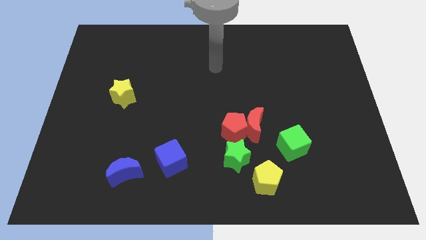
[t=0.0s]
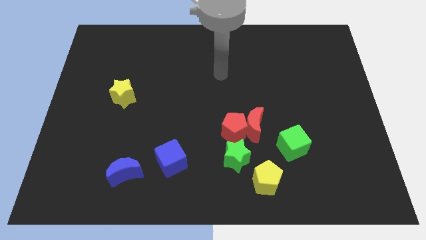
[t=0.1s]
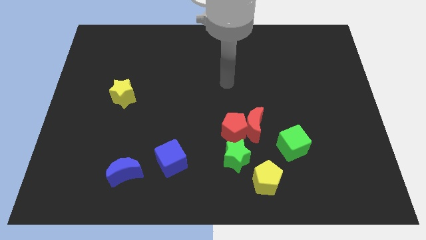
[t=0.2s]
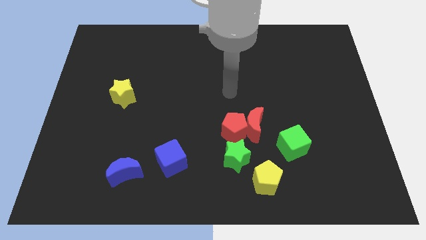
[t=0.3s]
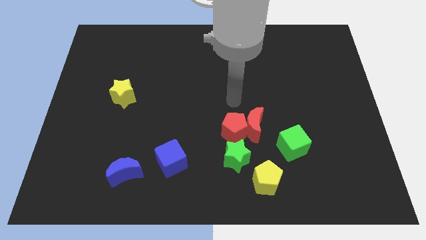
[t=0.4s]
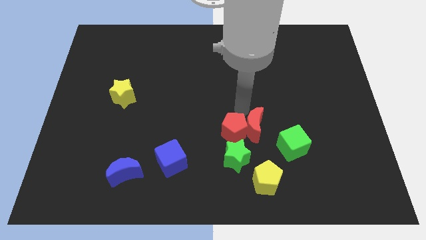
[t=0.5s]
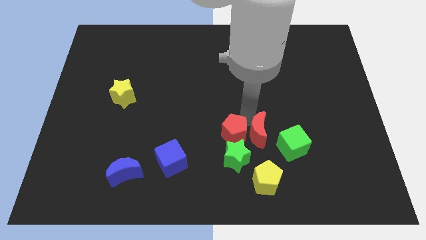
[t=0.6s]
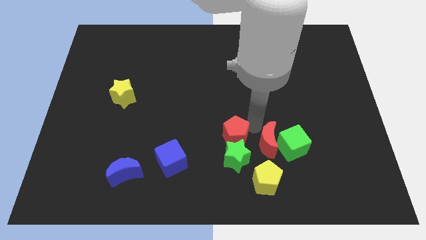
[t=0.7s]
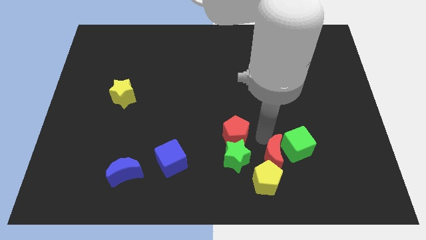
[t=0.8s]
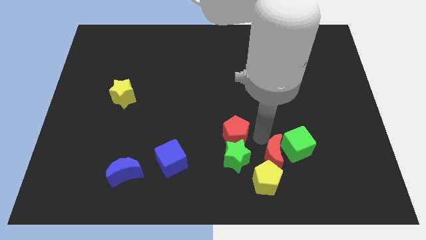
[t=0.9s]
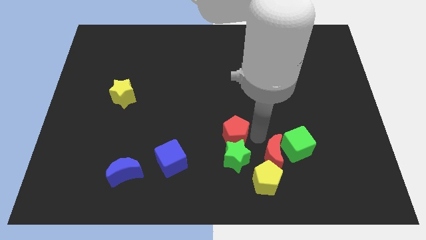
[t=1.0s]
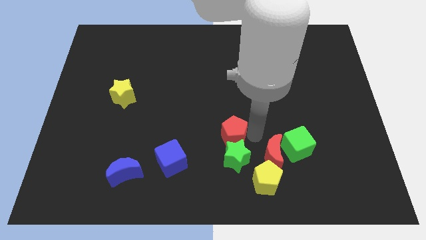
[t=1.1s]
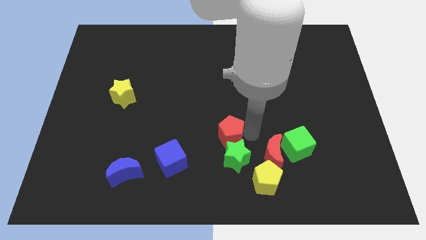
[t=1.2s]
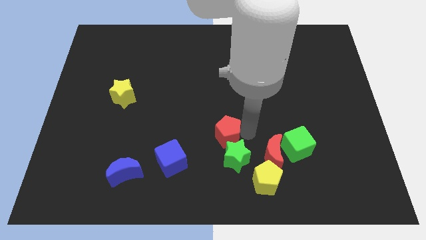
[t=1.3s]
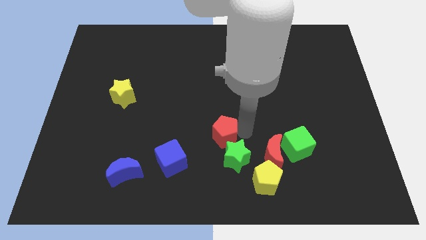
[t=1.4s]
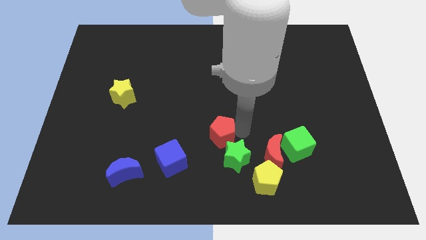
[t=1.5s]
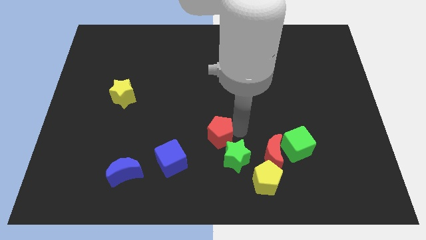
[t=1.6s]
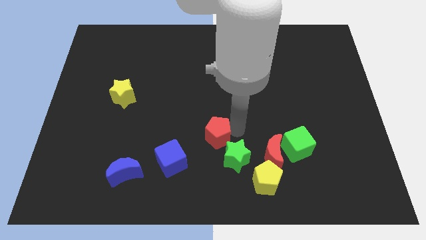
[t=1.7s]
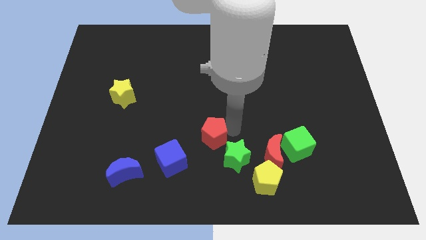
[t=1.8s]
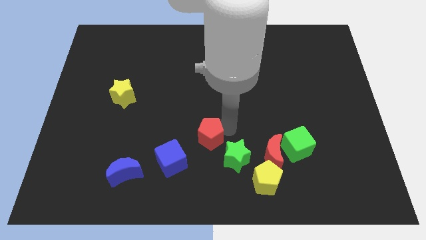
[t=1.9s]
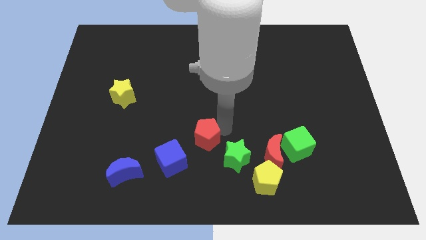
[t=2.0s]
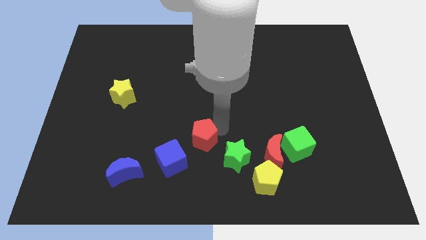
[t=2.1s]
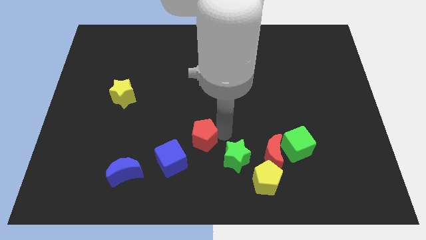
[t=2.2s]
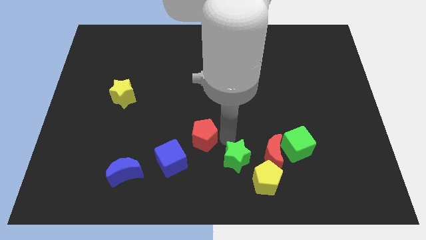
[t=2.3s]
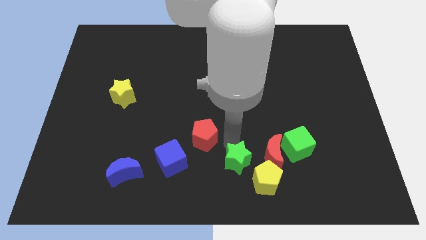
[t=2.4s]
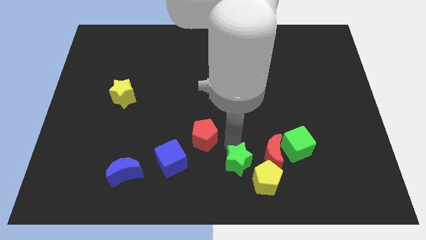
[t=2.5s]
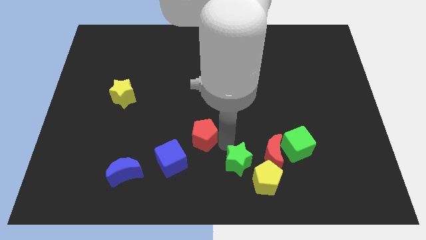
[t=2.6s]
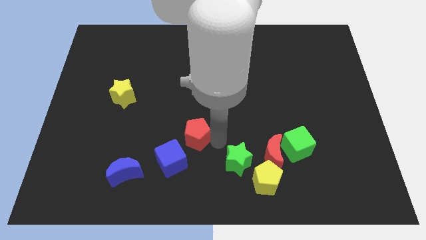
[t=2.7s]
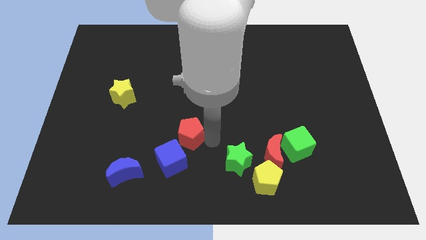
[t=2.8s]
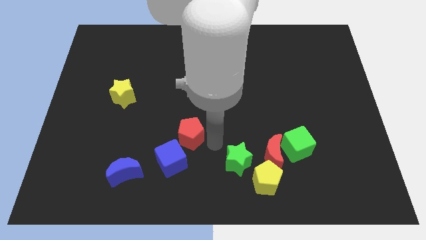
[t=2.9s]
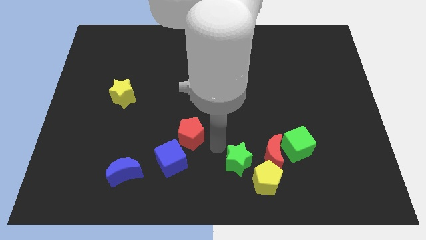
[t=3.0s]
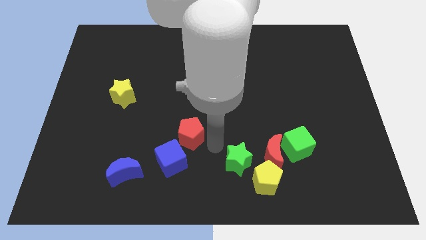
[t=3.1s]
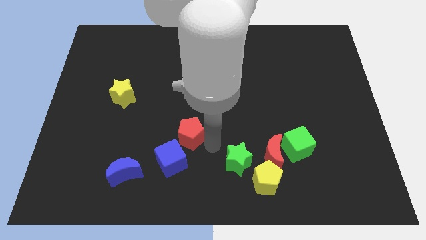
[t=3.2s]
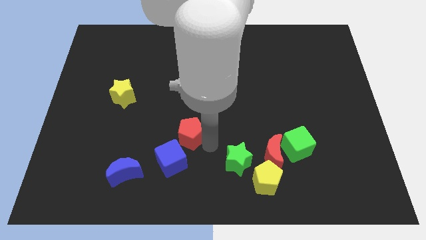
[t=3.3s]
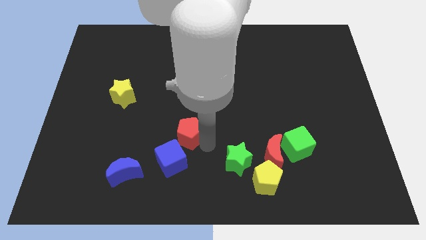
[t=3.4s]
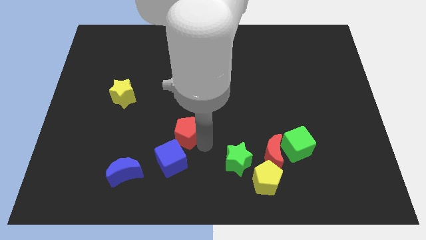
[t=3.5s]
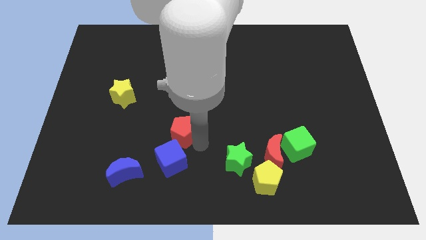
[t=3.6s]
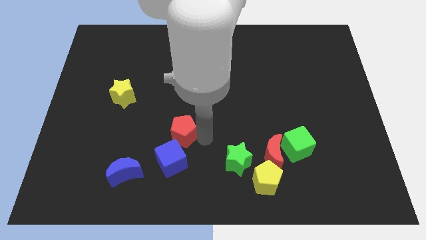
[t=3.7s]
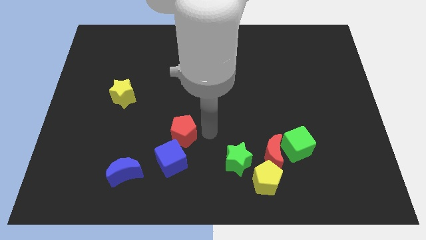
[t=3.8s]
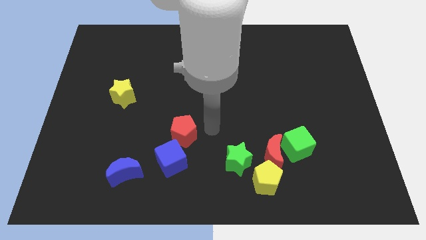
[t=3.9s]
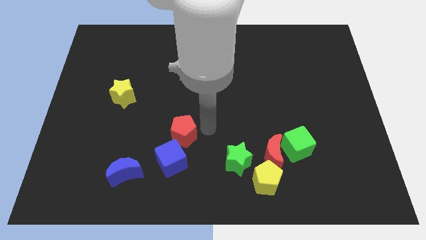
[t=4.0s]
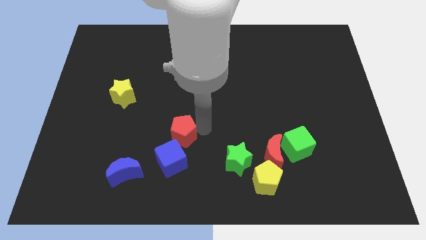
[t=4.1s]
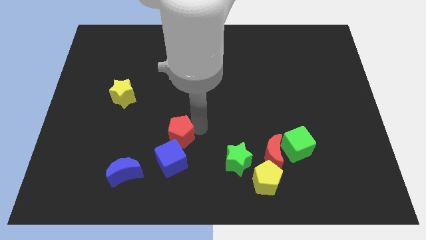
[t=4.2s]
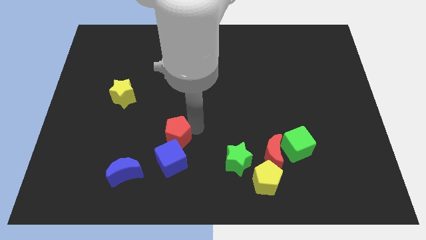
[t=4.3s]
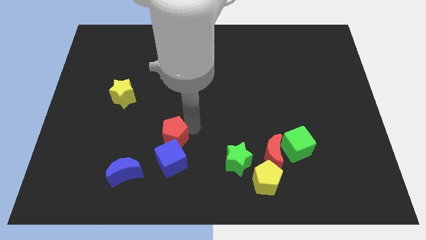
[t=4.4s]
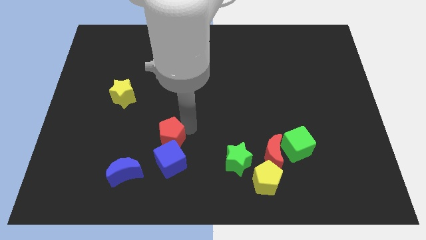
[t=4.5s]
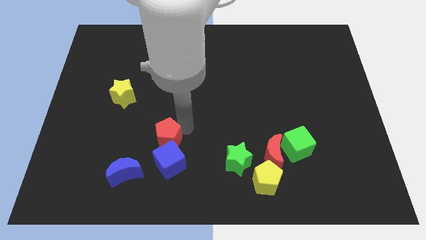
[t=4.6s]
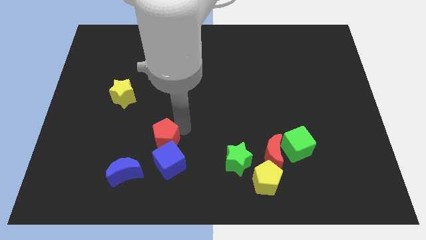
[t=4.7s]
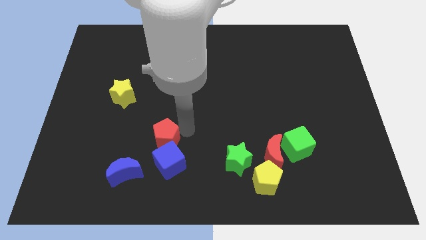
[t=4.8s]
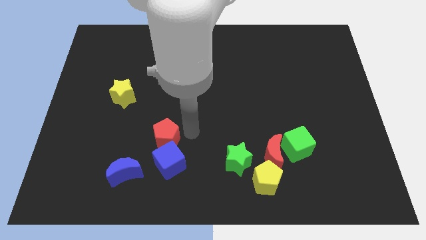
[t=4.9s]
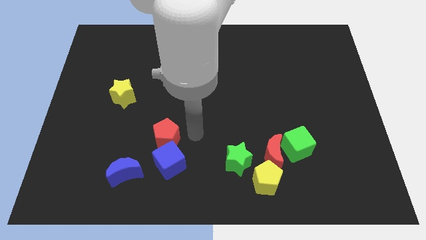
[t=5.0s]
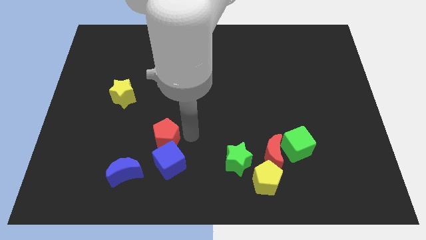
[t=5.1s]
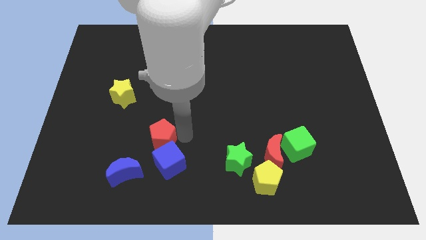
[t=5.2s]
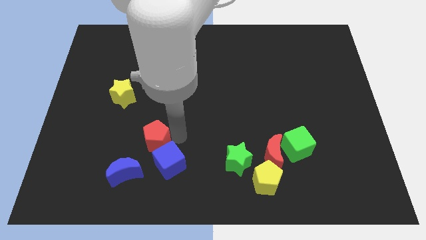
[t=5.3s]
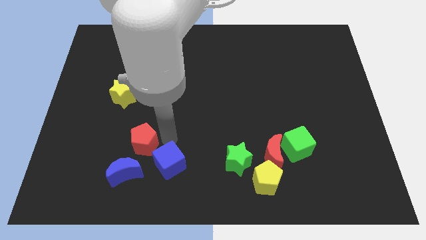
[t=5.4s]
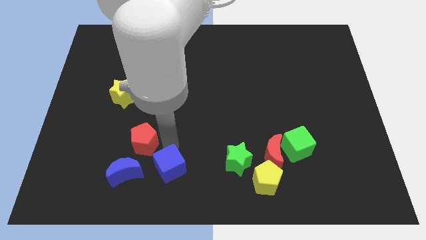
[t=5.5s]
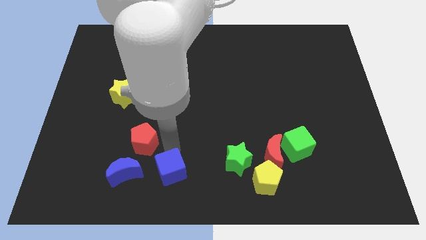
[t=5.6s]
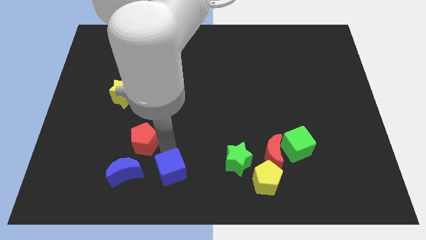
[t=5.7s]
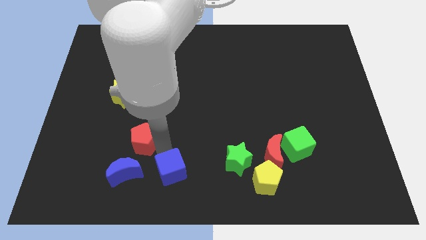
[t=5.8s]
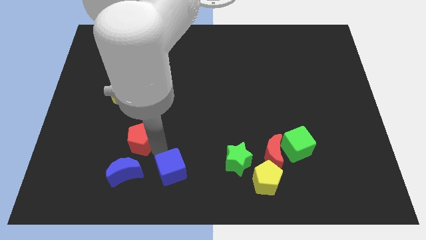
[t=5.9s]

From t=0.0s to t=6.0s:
move the red pentagon left

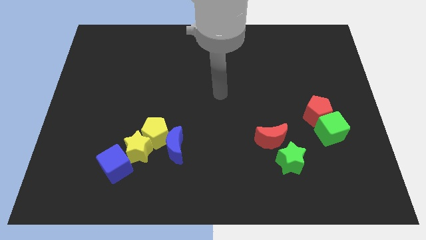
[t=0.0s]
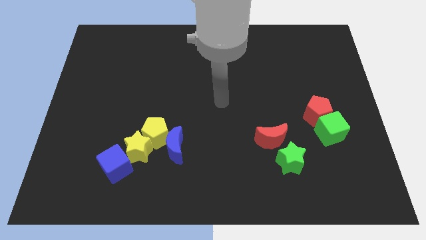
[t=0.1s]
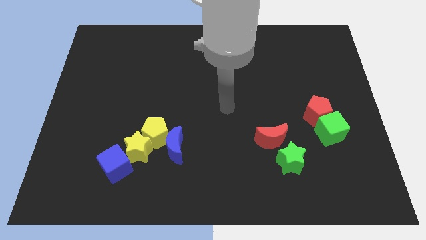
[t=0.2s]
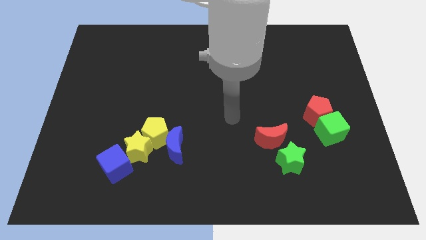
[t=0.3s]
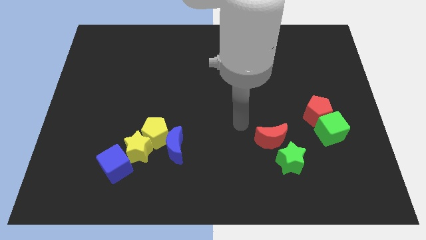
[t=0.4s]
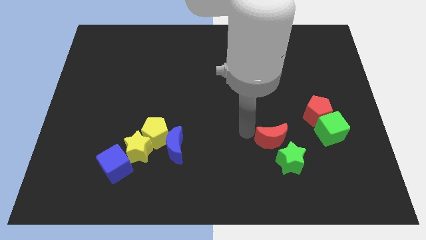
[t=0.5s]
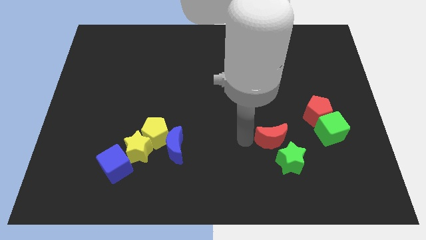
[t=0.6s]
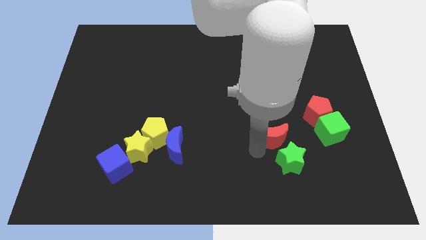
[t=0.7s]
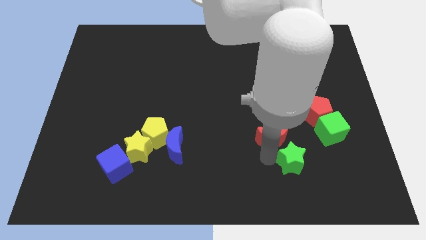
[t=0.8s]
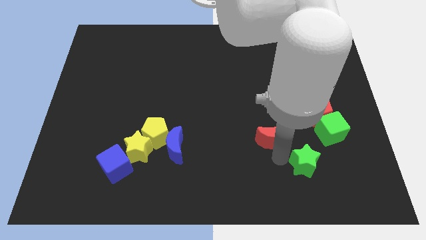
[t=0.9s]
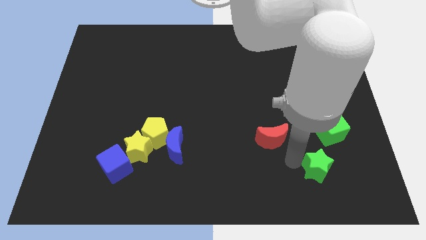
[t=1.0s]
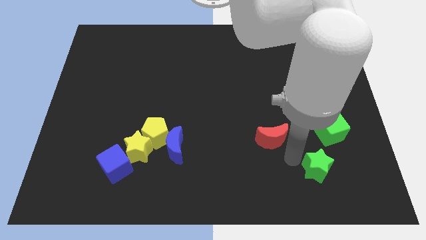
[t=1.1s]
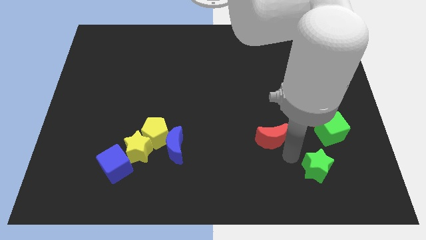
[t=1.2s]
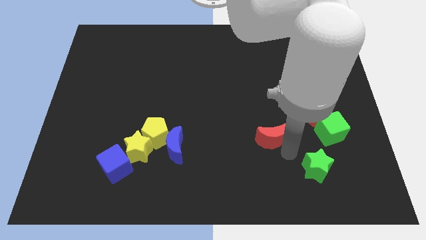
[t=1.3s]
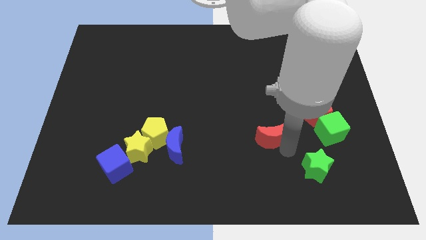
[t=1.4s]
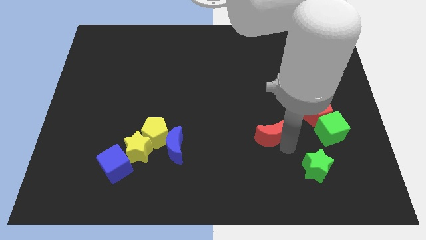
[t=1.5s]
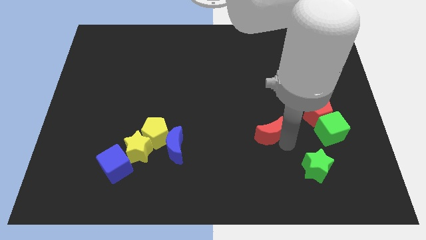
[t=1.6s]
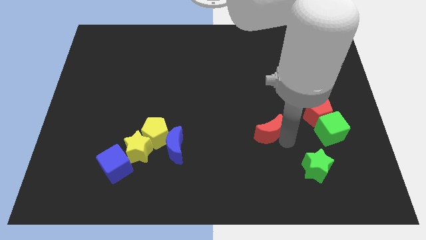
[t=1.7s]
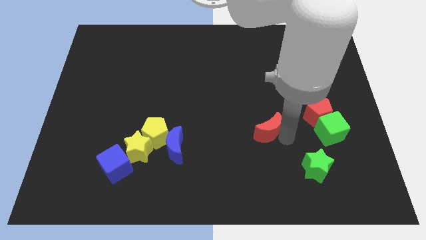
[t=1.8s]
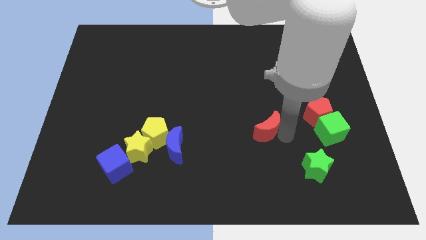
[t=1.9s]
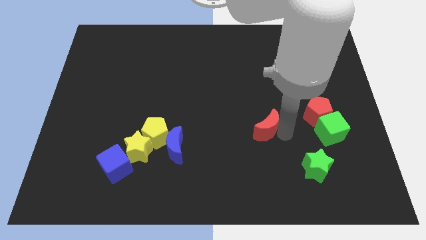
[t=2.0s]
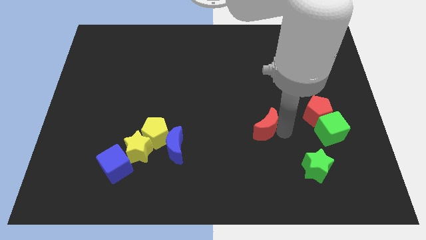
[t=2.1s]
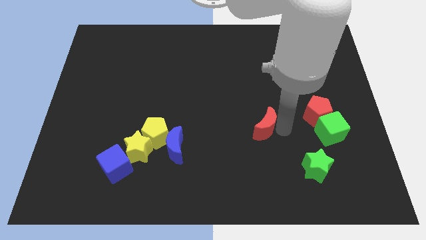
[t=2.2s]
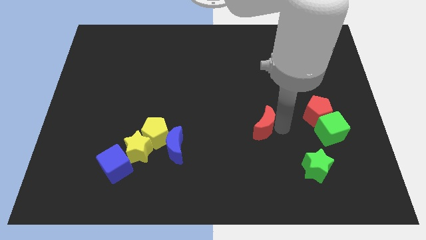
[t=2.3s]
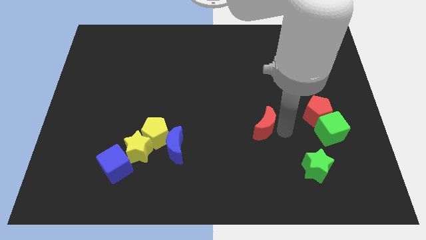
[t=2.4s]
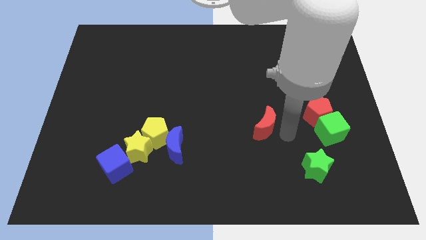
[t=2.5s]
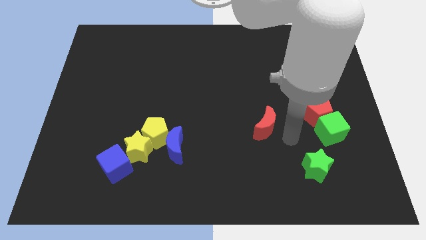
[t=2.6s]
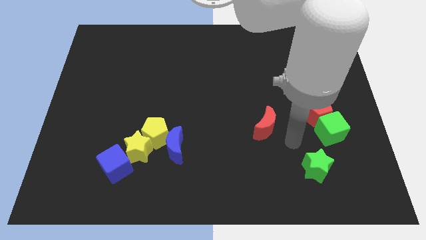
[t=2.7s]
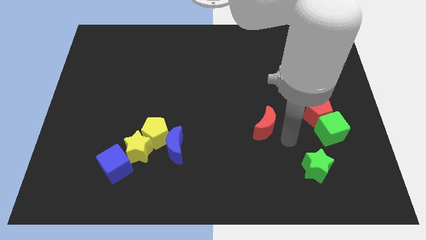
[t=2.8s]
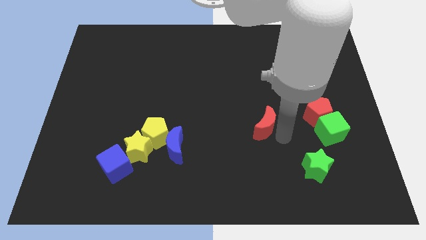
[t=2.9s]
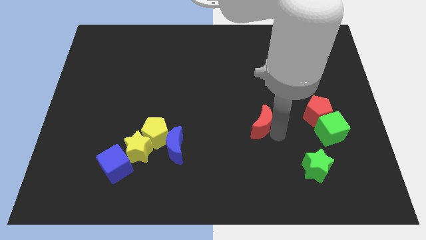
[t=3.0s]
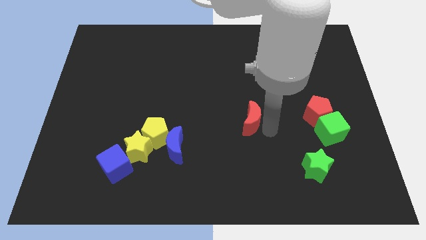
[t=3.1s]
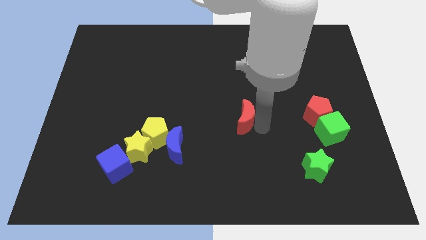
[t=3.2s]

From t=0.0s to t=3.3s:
slightly move the red moon upwards and then to the left
